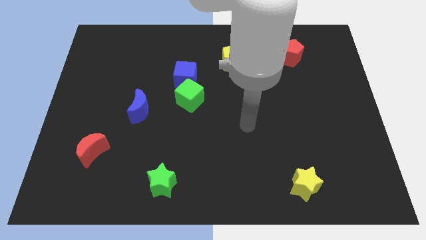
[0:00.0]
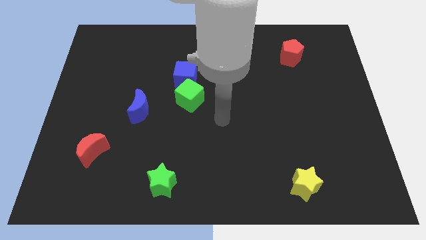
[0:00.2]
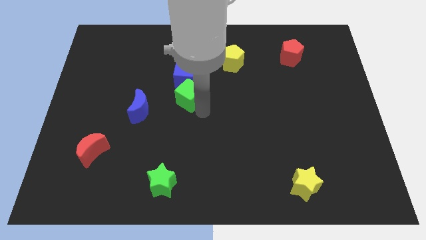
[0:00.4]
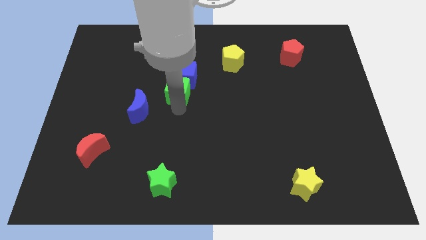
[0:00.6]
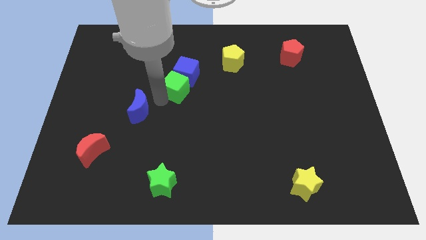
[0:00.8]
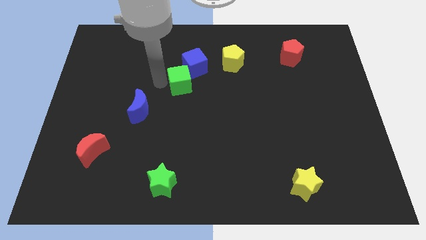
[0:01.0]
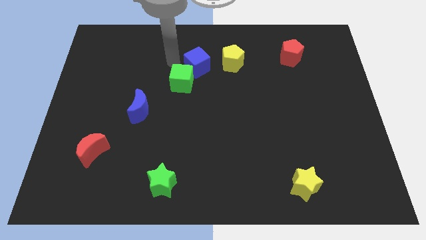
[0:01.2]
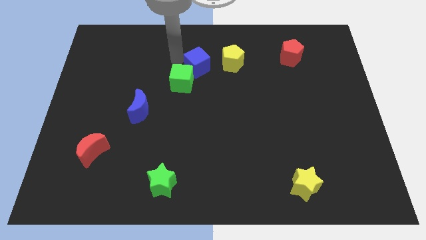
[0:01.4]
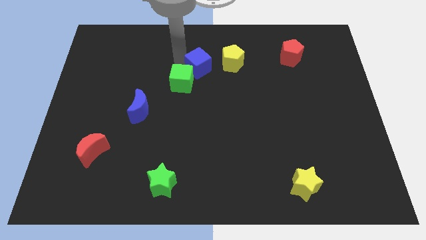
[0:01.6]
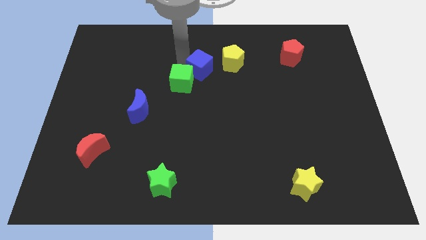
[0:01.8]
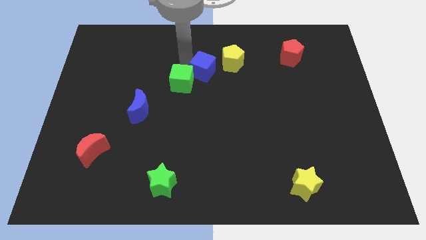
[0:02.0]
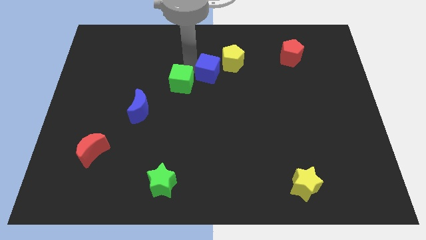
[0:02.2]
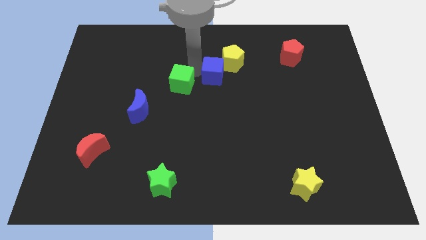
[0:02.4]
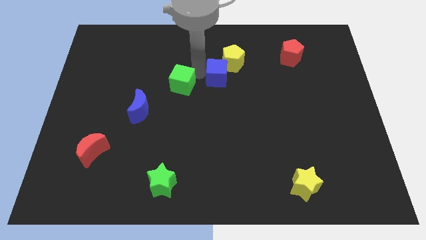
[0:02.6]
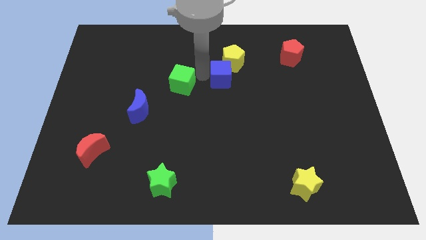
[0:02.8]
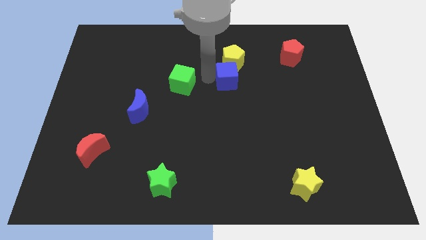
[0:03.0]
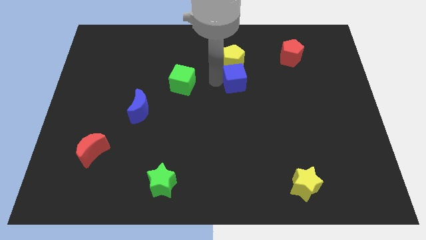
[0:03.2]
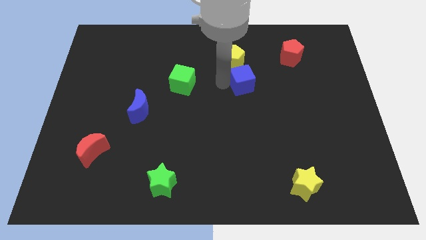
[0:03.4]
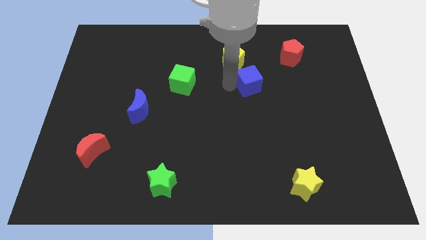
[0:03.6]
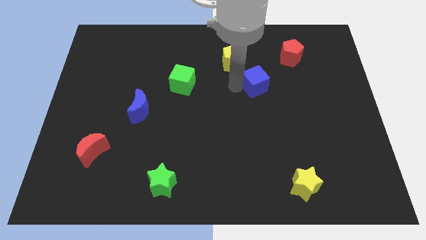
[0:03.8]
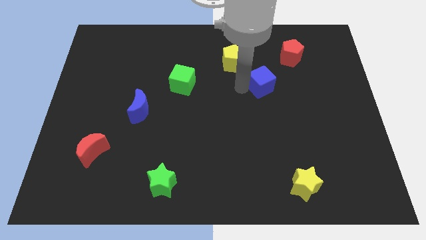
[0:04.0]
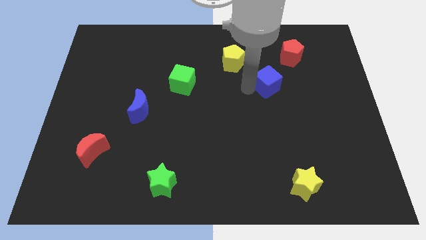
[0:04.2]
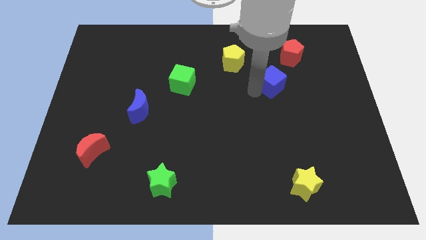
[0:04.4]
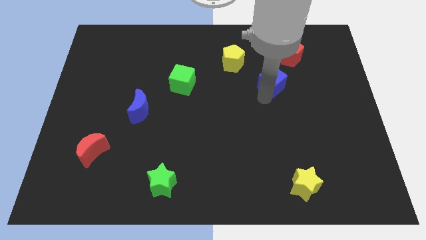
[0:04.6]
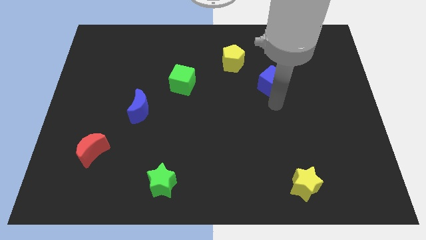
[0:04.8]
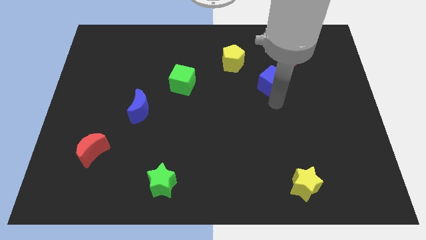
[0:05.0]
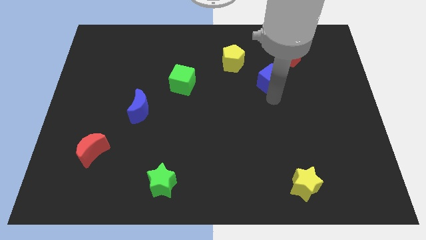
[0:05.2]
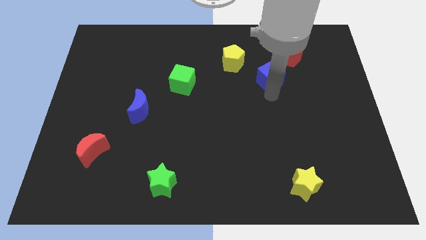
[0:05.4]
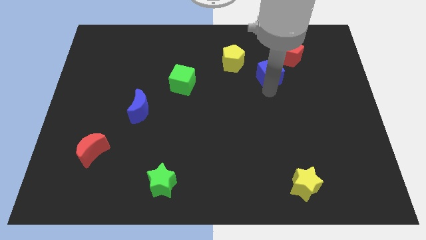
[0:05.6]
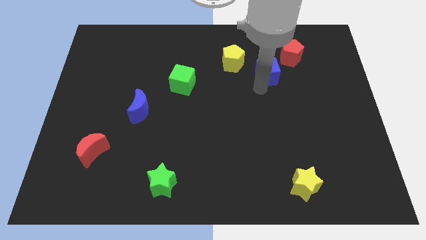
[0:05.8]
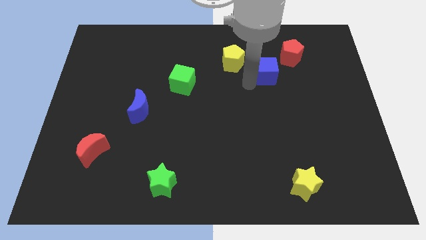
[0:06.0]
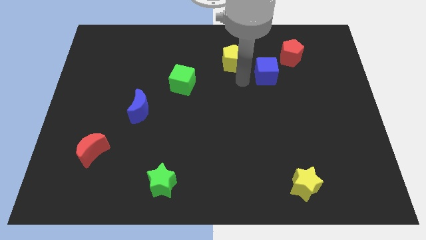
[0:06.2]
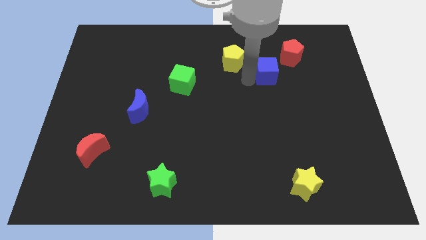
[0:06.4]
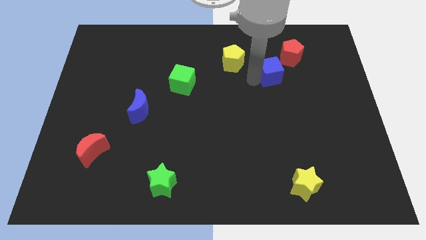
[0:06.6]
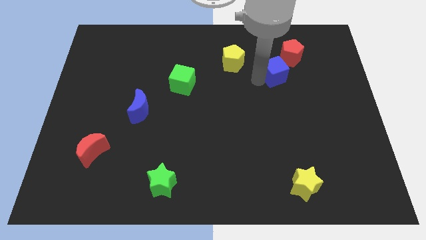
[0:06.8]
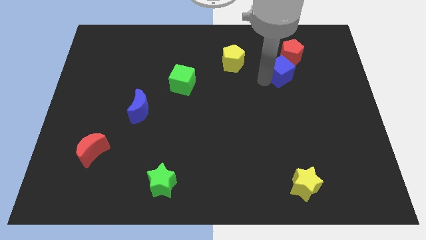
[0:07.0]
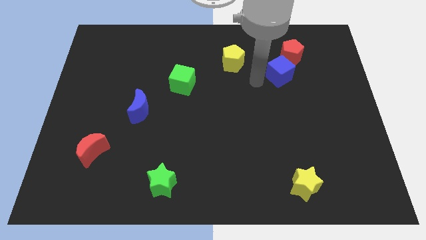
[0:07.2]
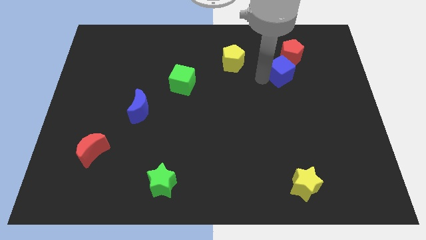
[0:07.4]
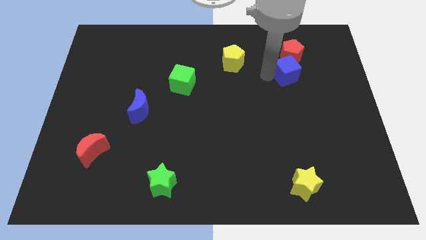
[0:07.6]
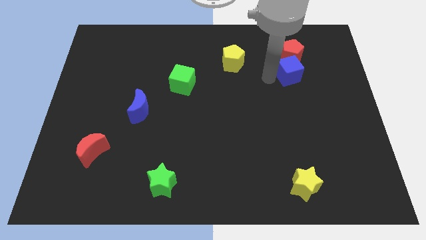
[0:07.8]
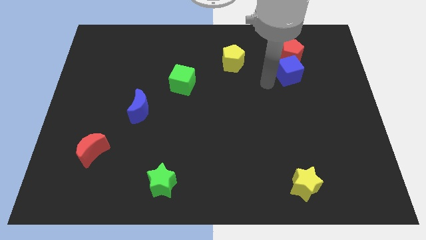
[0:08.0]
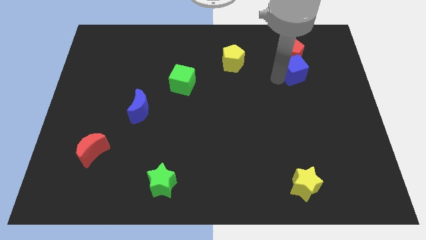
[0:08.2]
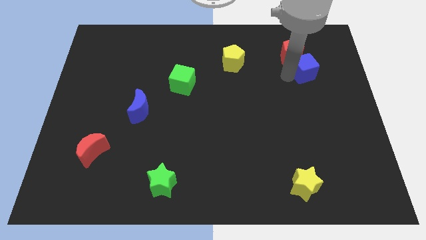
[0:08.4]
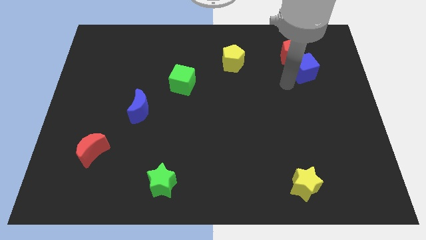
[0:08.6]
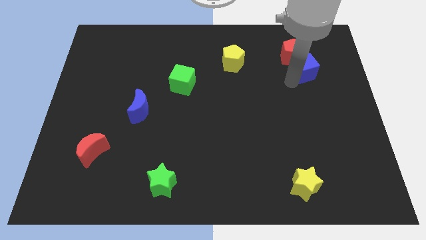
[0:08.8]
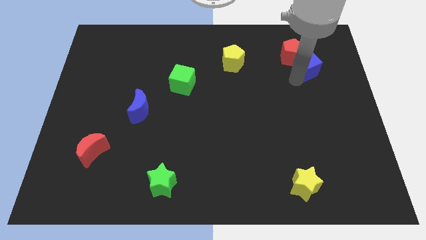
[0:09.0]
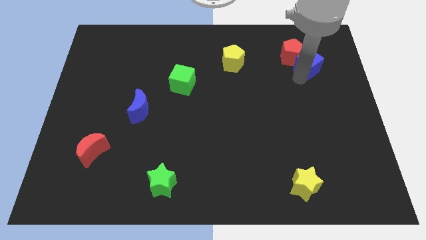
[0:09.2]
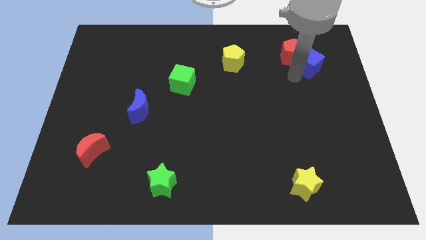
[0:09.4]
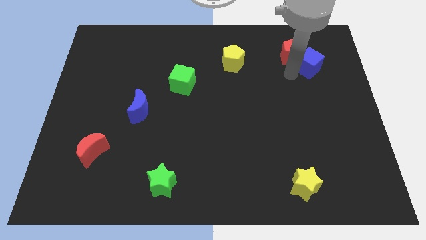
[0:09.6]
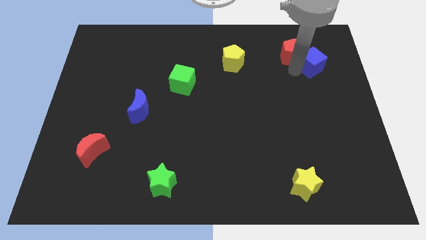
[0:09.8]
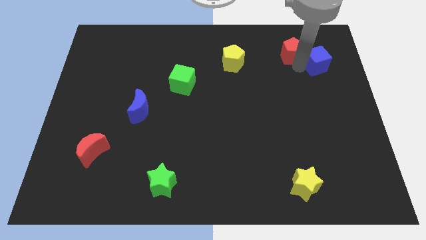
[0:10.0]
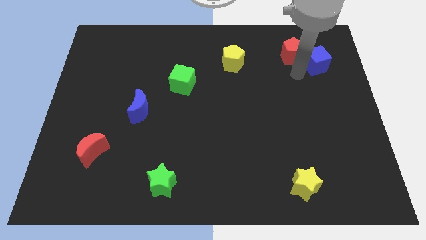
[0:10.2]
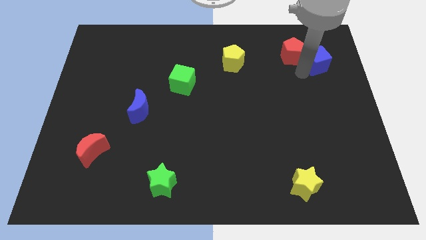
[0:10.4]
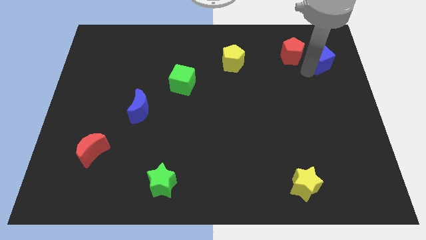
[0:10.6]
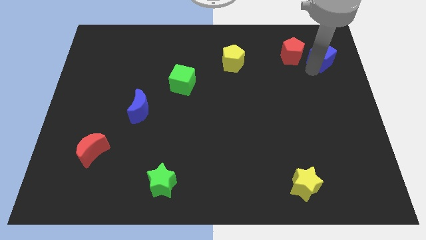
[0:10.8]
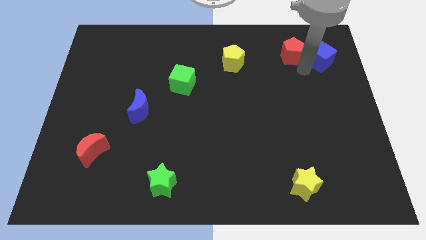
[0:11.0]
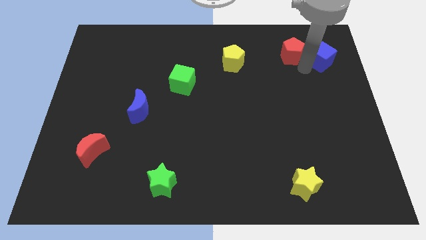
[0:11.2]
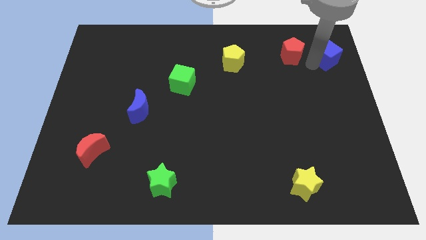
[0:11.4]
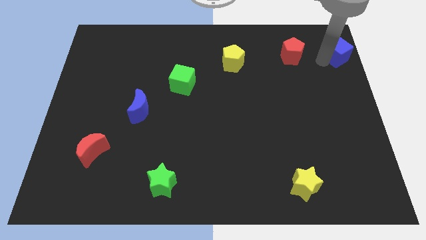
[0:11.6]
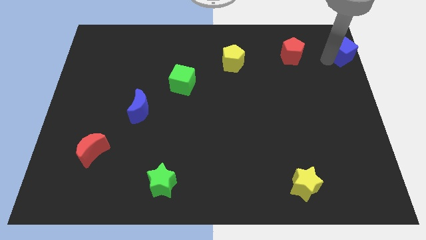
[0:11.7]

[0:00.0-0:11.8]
slide the blue cube to the top right of the board

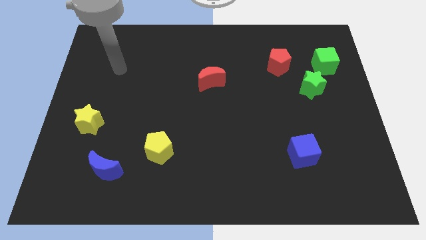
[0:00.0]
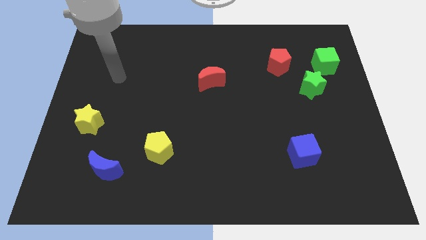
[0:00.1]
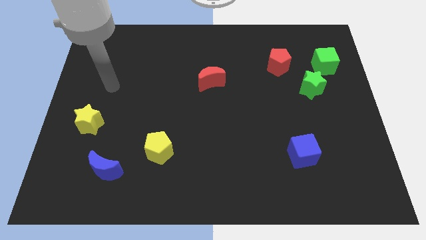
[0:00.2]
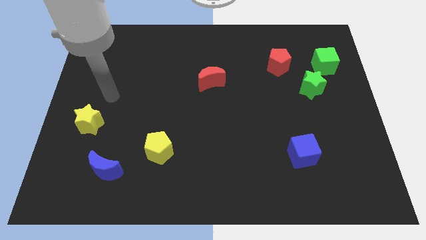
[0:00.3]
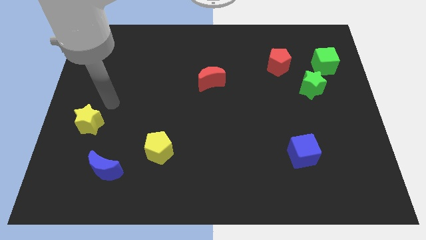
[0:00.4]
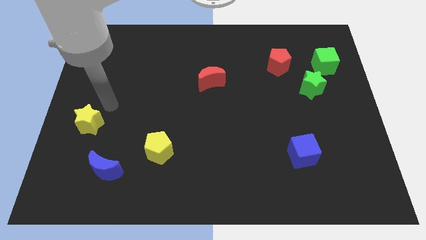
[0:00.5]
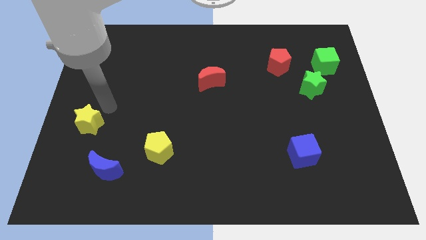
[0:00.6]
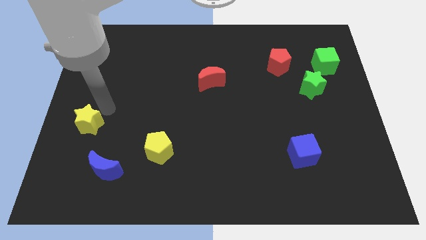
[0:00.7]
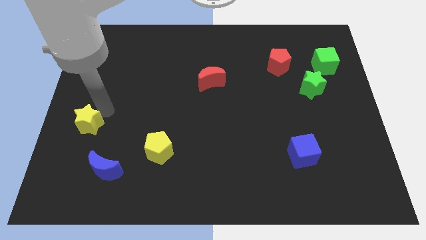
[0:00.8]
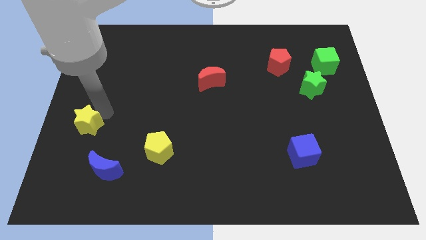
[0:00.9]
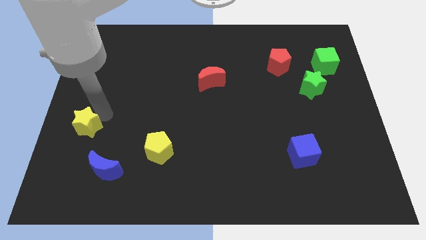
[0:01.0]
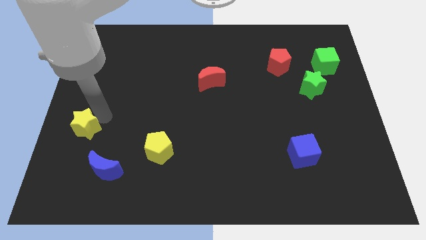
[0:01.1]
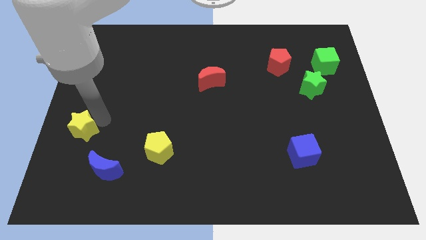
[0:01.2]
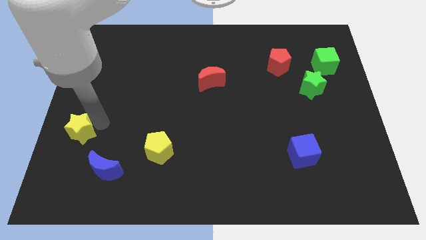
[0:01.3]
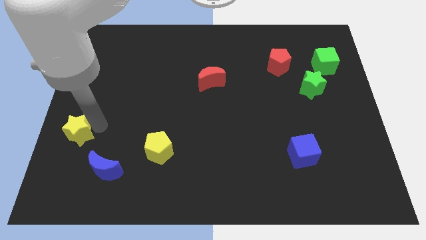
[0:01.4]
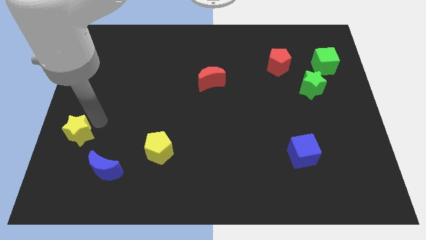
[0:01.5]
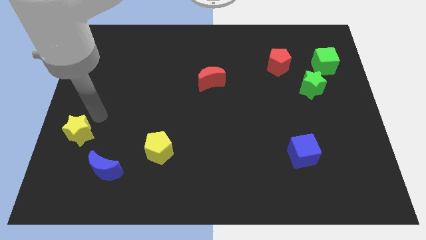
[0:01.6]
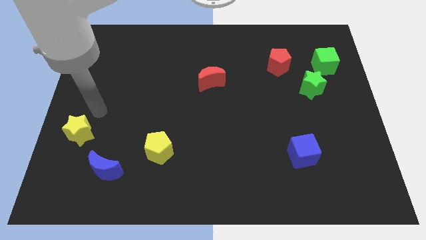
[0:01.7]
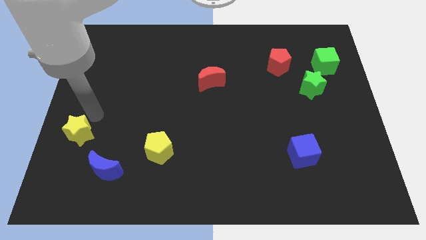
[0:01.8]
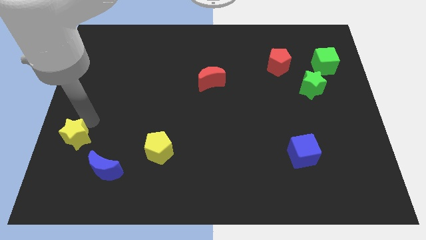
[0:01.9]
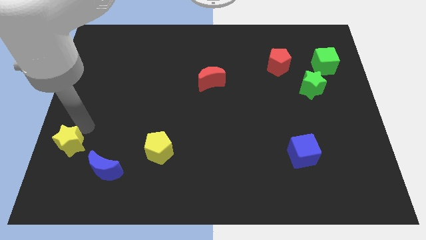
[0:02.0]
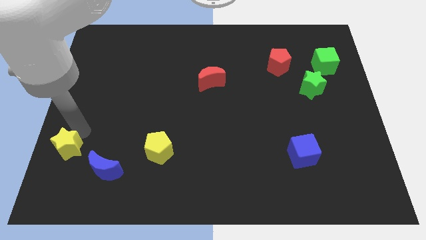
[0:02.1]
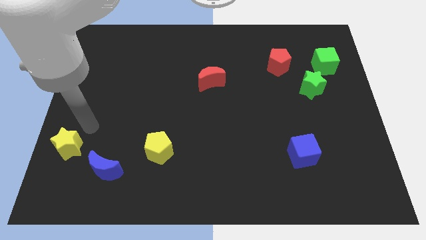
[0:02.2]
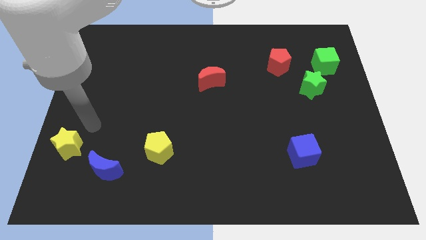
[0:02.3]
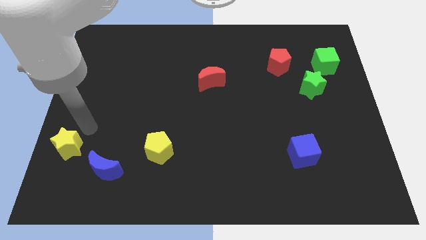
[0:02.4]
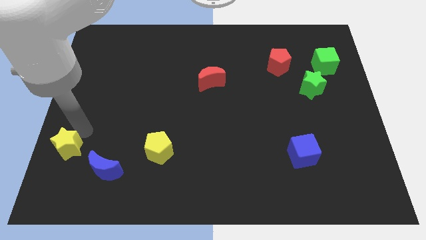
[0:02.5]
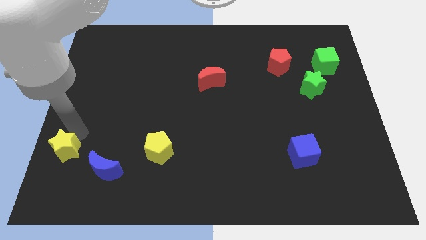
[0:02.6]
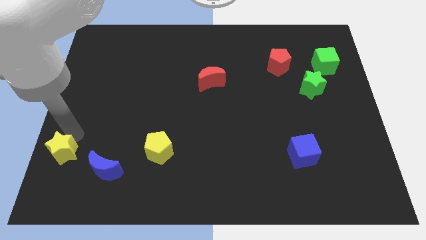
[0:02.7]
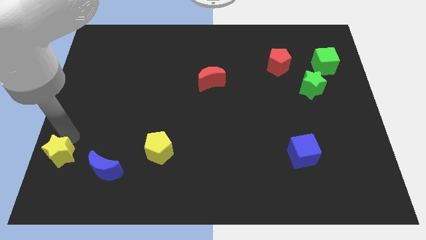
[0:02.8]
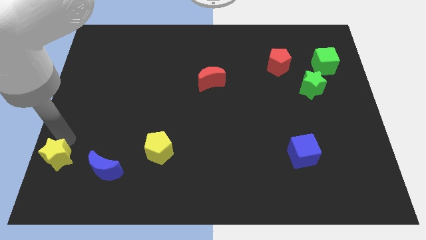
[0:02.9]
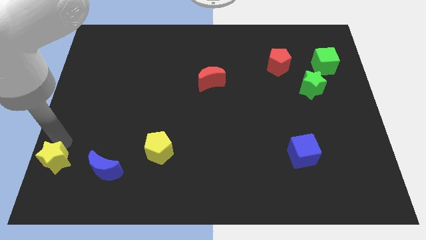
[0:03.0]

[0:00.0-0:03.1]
put the yellow star to the bottom left of the board
